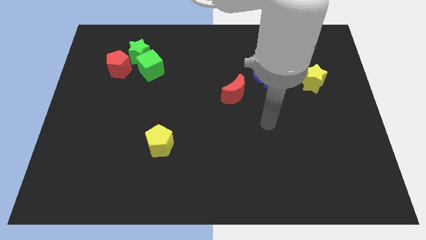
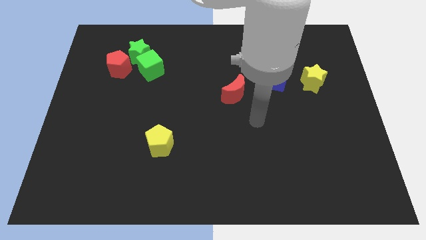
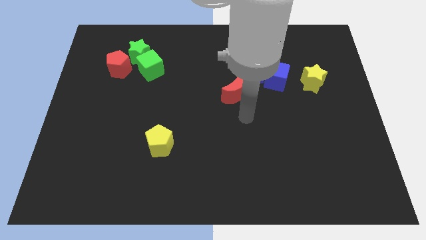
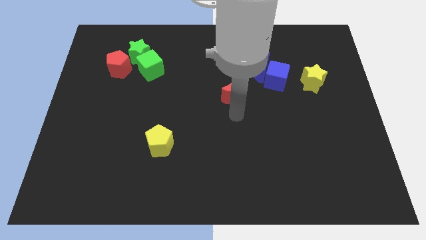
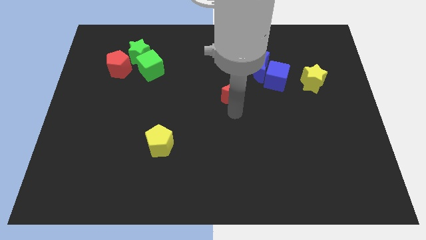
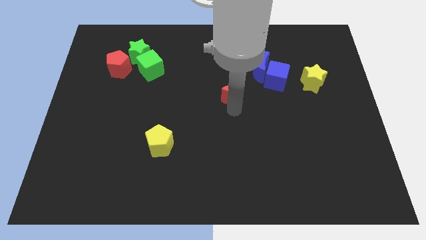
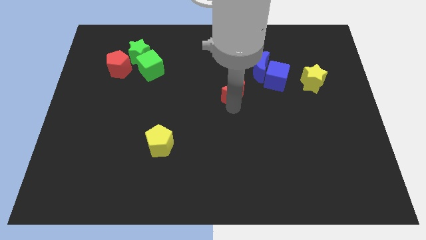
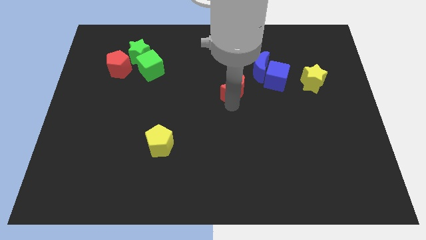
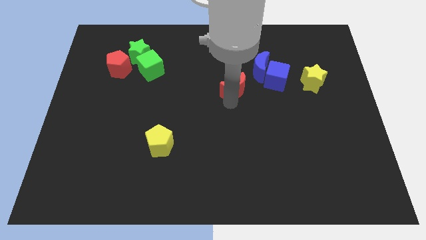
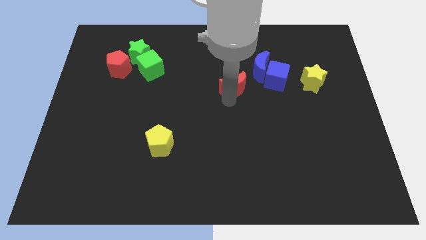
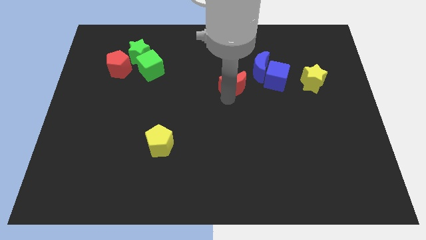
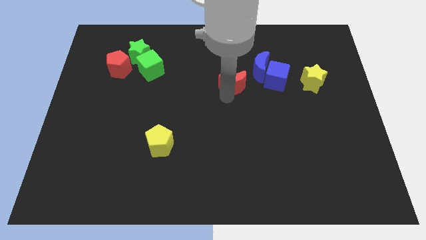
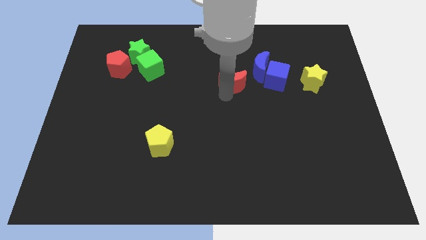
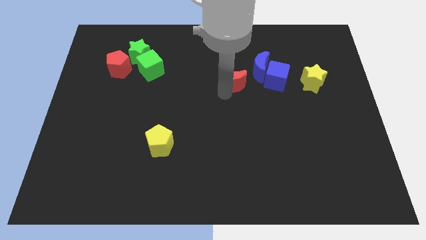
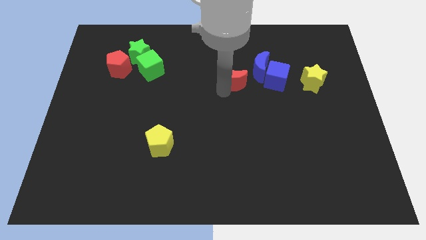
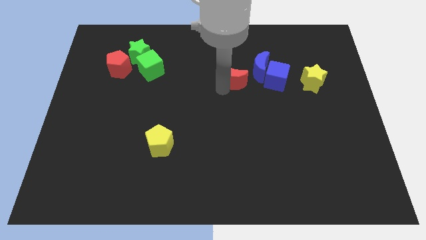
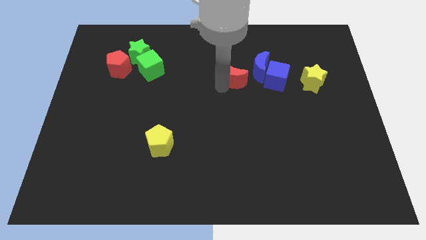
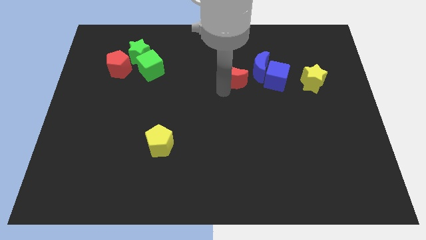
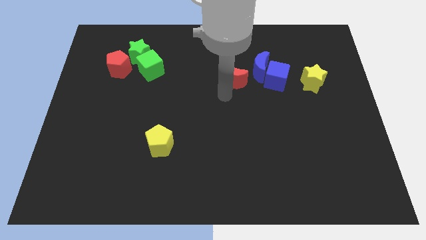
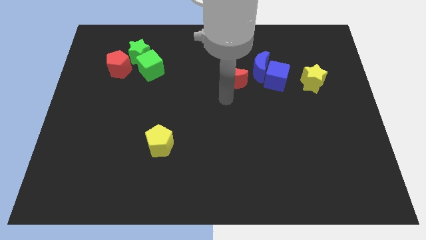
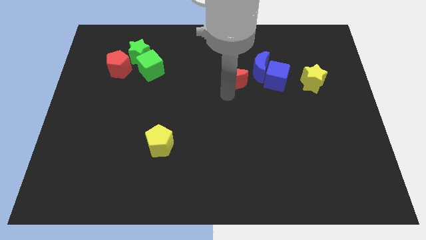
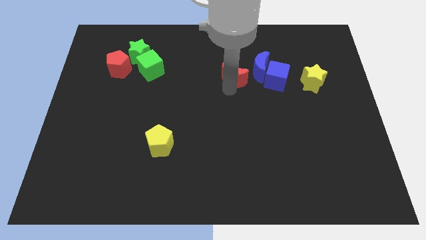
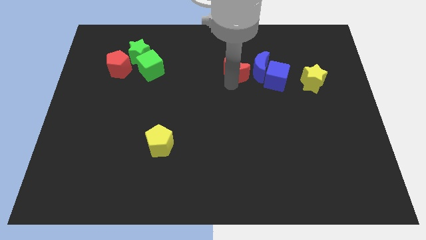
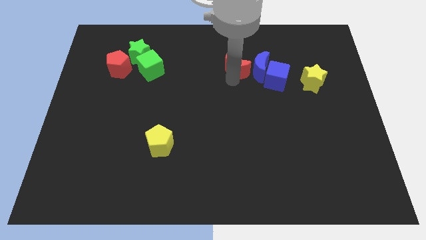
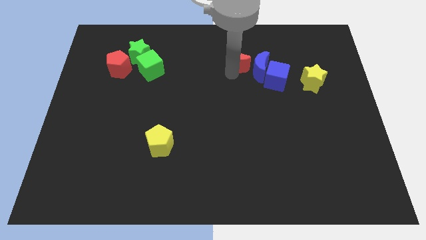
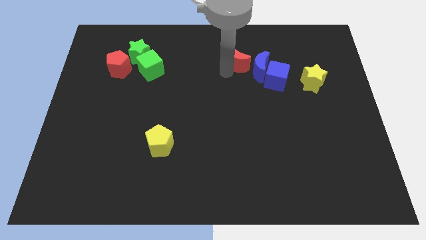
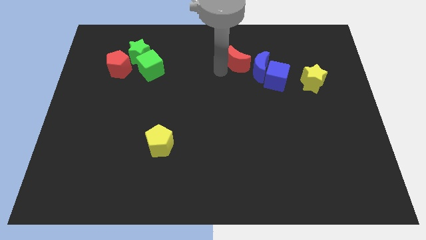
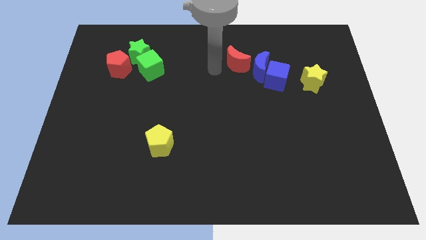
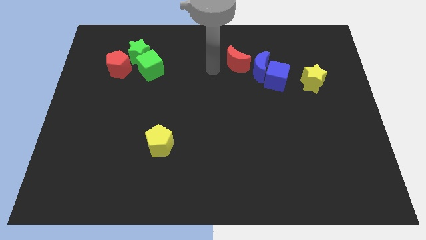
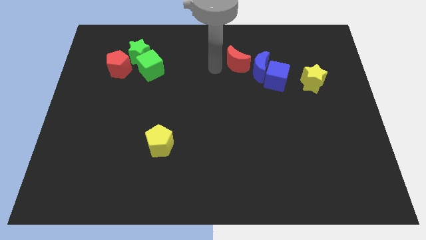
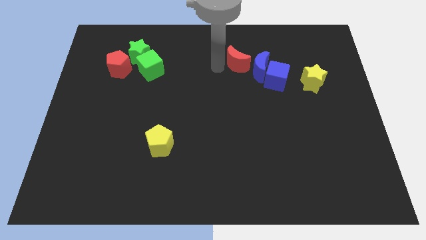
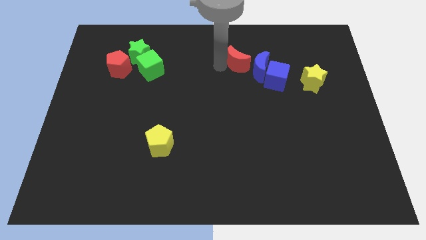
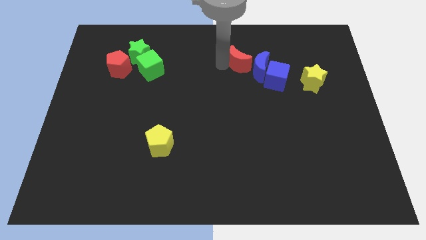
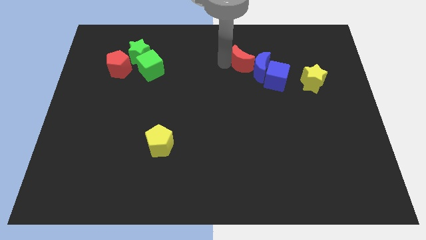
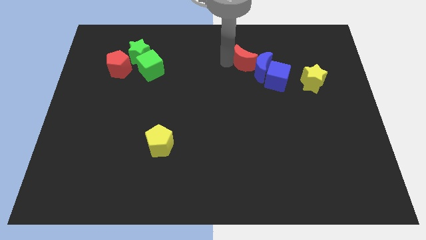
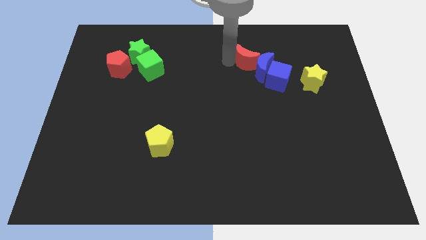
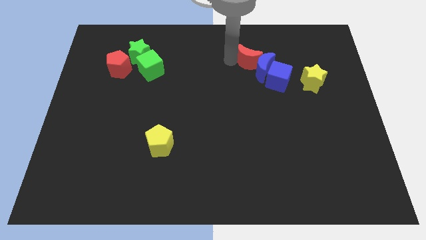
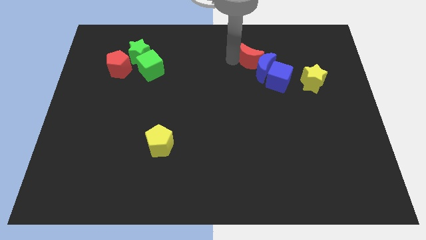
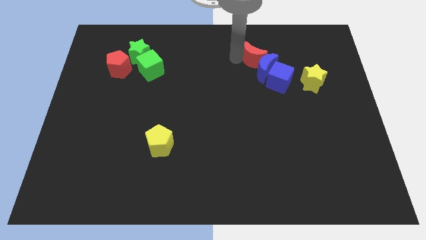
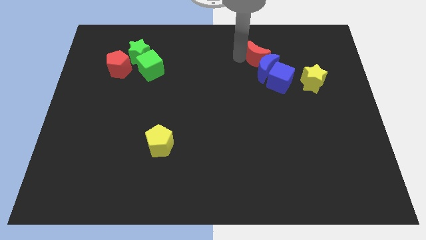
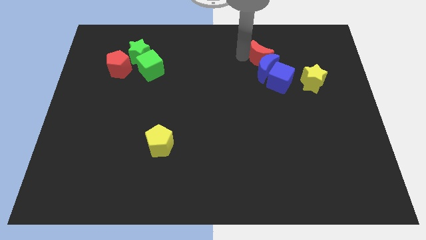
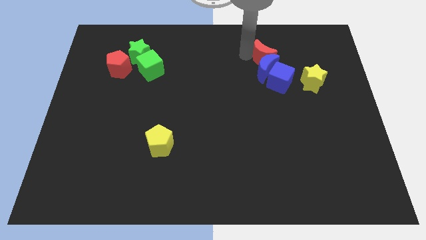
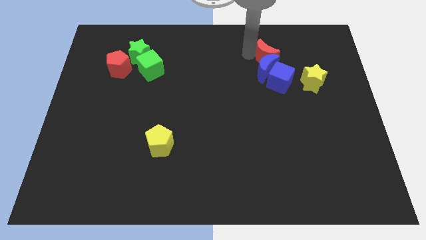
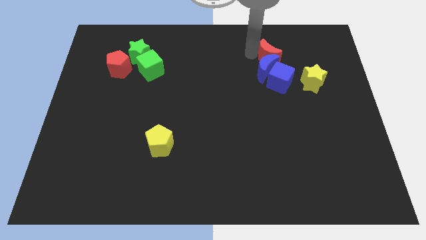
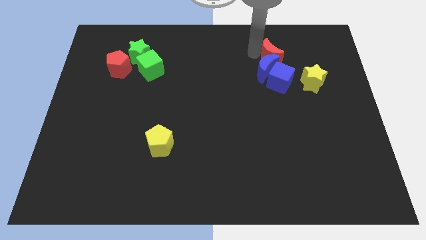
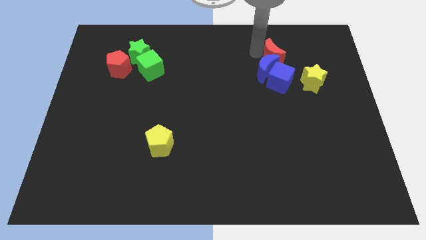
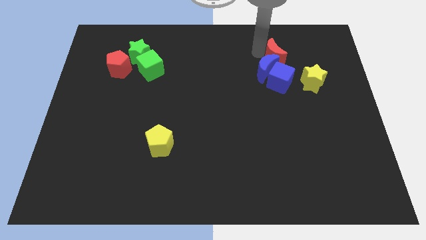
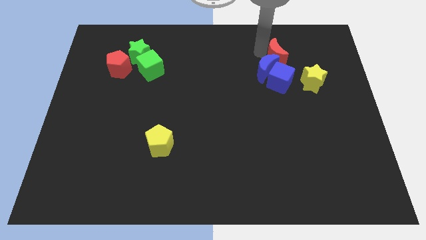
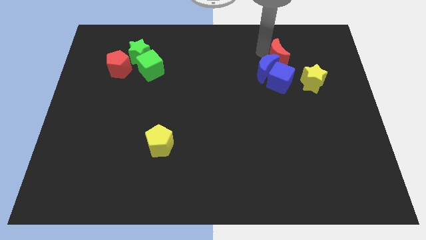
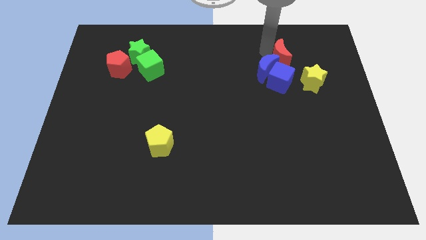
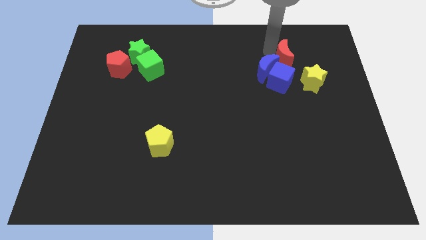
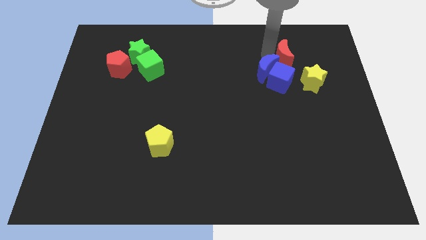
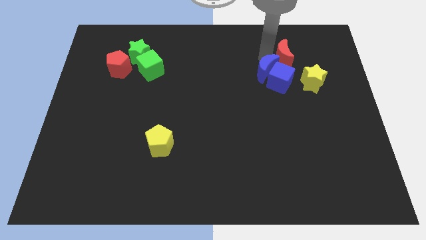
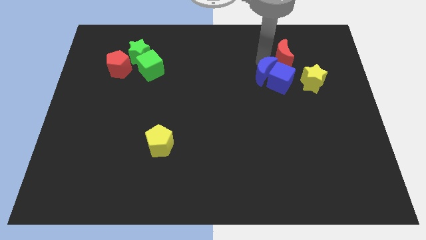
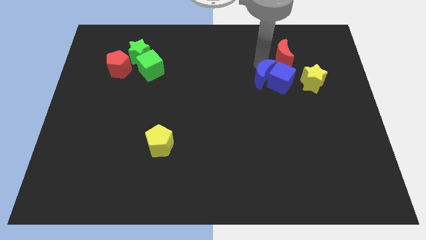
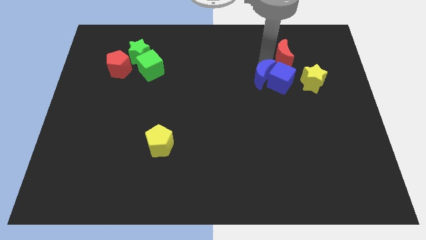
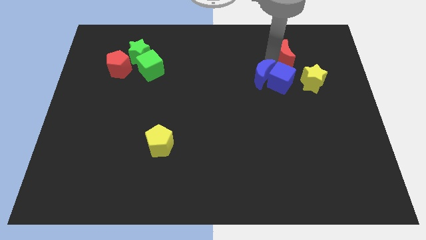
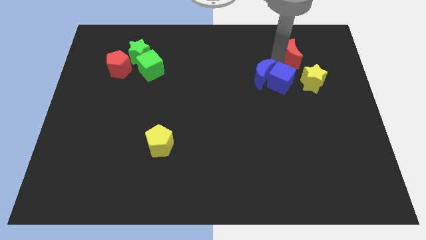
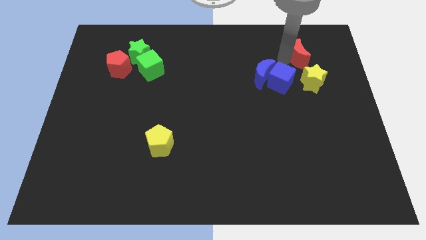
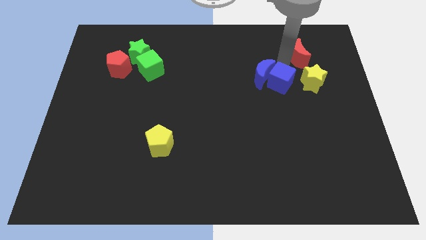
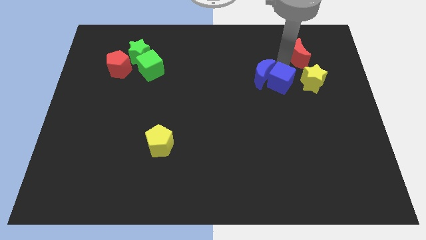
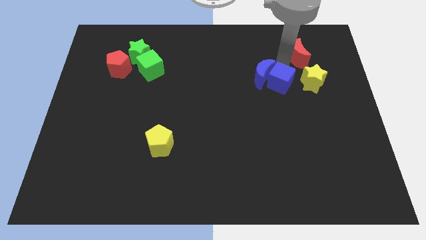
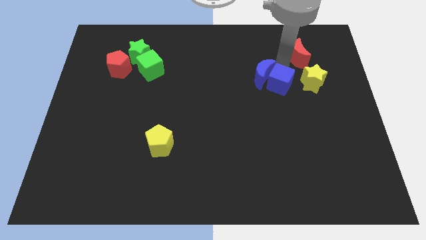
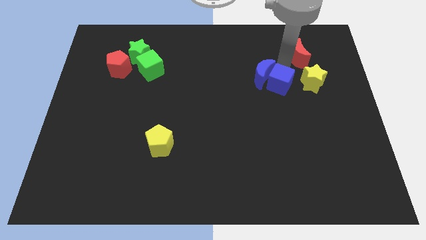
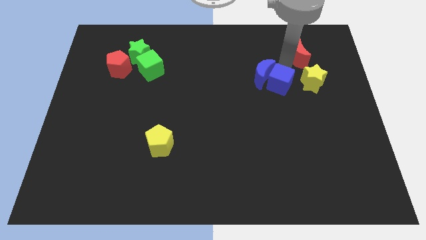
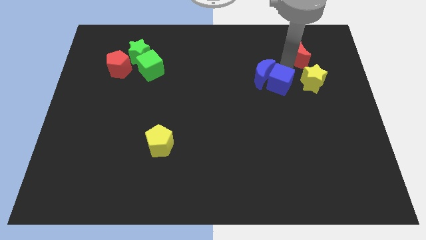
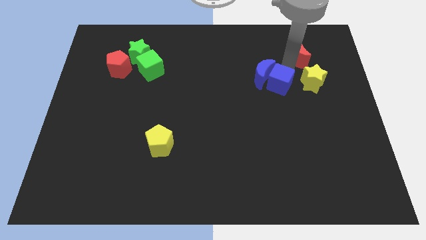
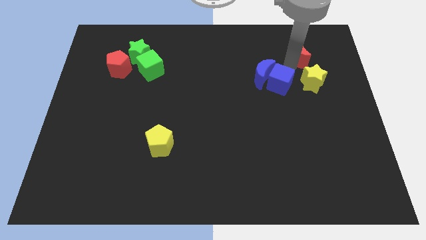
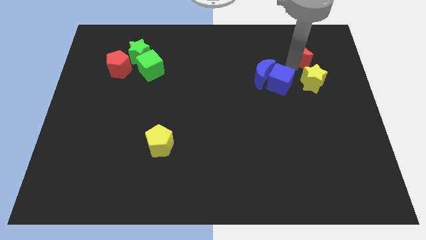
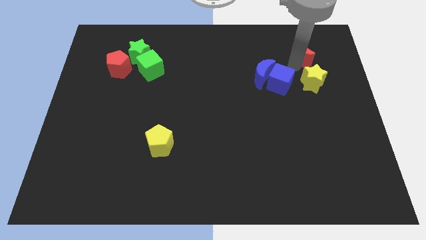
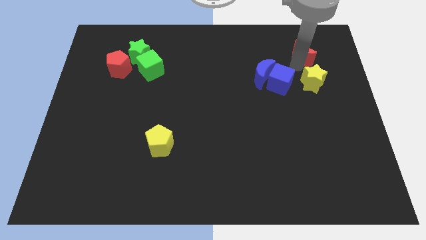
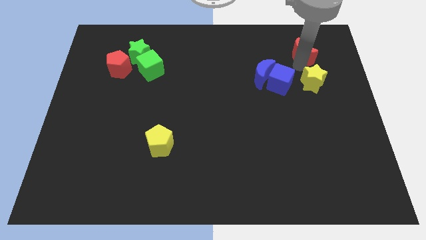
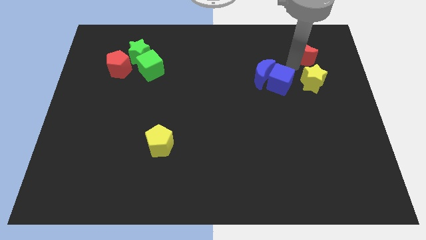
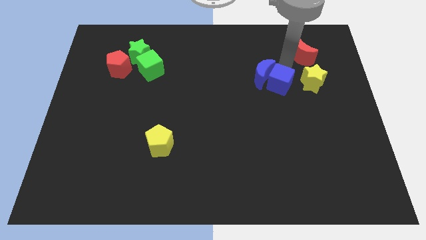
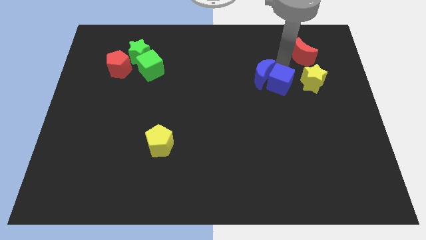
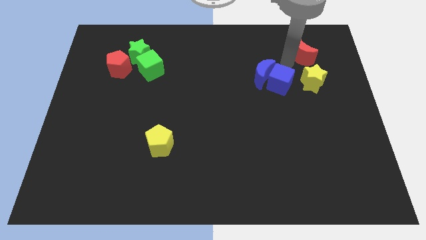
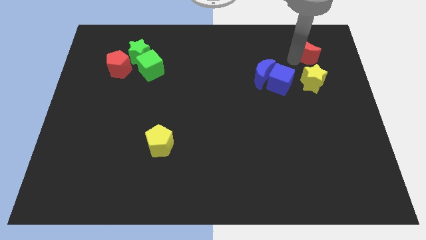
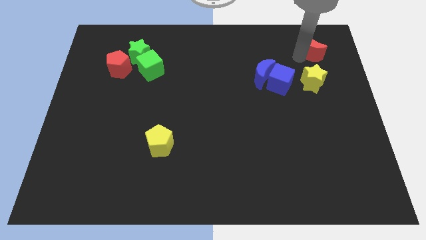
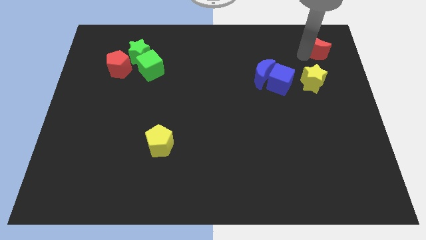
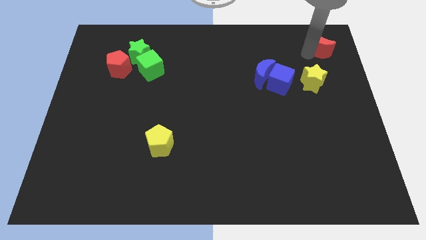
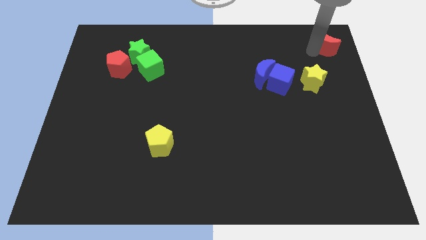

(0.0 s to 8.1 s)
push the red moon to the top right corner
